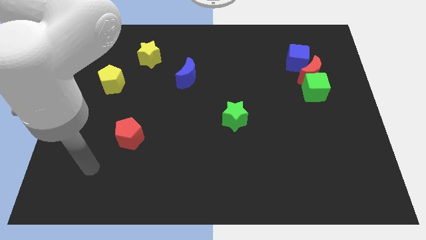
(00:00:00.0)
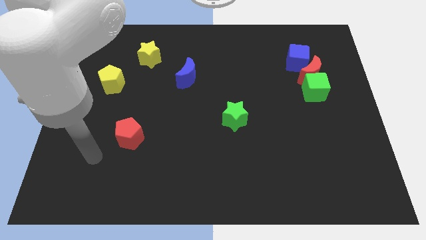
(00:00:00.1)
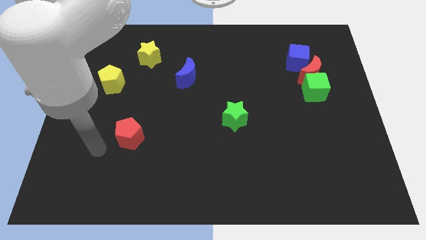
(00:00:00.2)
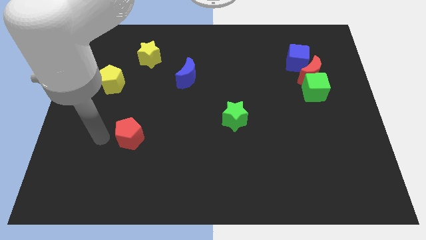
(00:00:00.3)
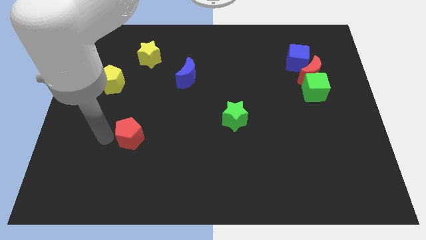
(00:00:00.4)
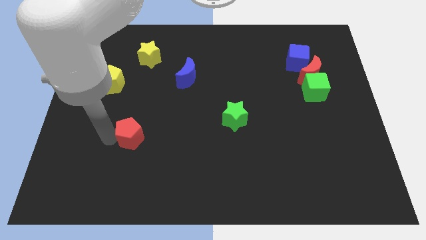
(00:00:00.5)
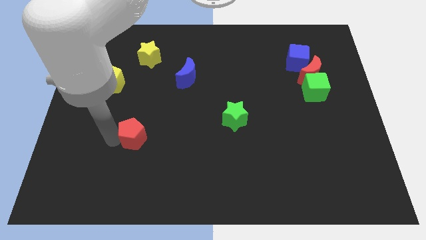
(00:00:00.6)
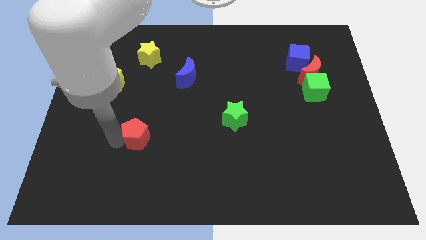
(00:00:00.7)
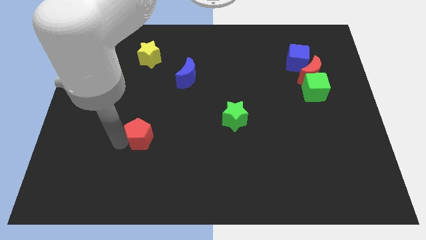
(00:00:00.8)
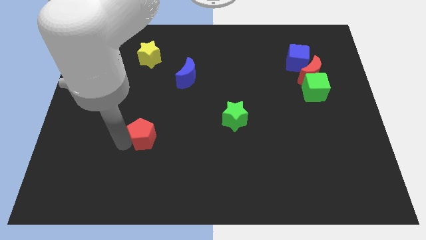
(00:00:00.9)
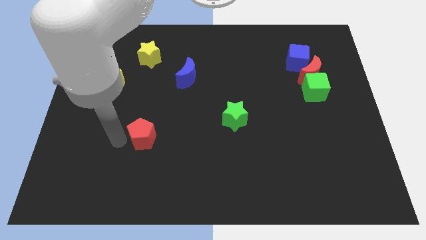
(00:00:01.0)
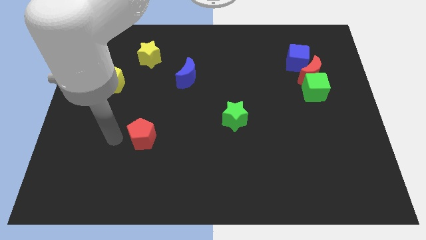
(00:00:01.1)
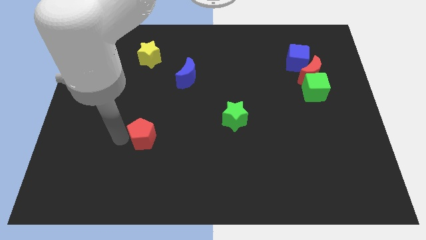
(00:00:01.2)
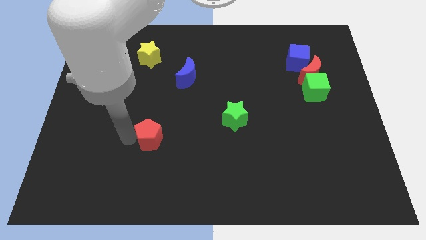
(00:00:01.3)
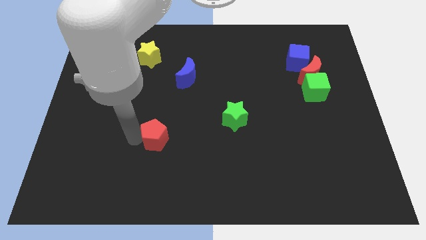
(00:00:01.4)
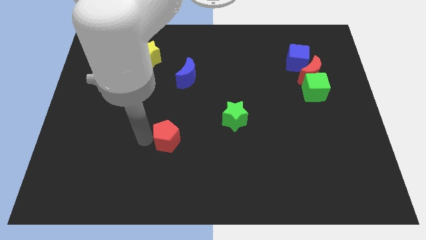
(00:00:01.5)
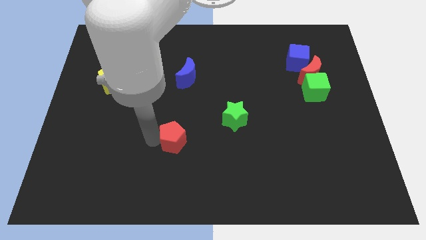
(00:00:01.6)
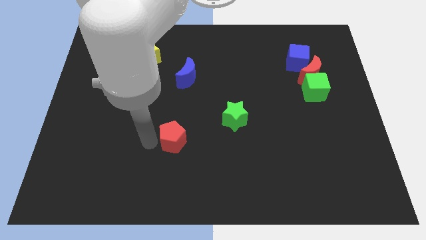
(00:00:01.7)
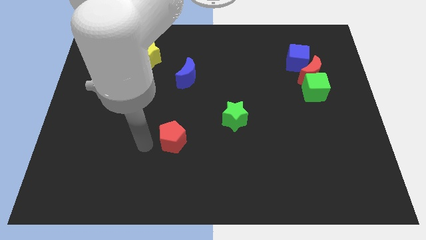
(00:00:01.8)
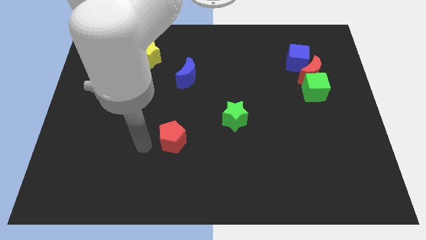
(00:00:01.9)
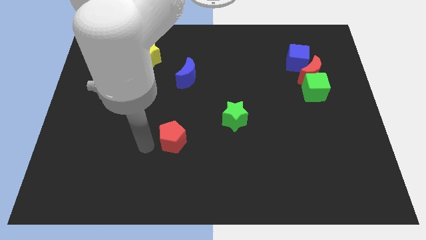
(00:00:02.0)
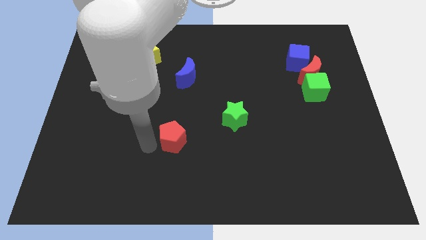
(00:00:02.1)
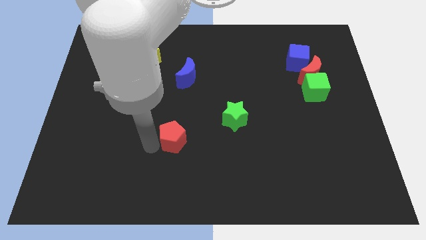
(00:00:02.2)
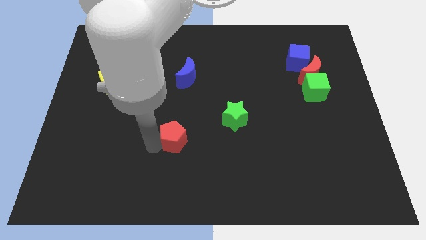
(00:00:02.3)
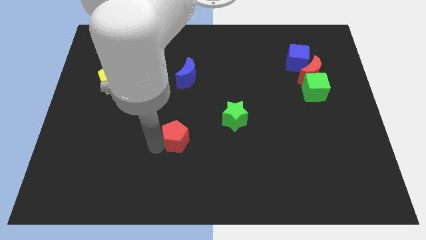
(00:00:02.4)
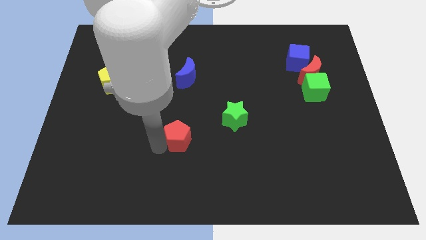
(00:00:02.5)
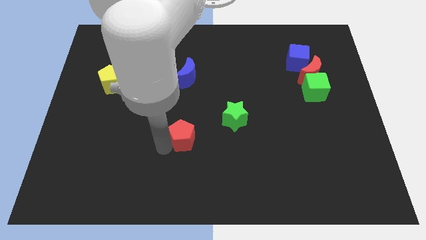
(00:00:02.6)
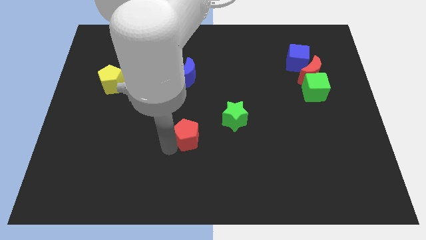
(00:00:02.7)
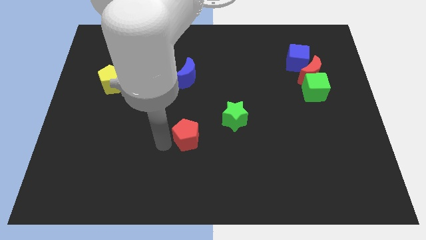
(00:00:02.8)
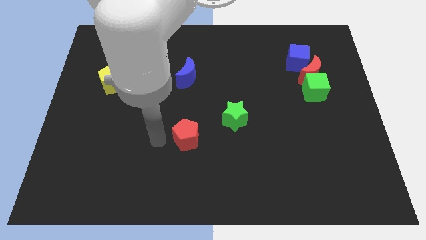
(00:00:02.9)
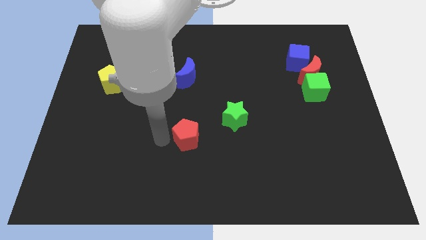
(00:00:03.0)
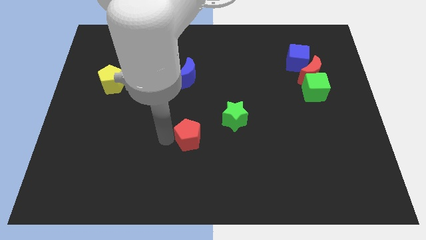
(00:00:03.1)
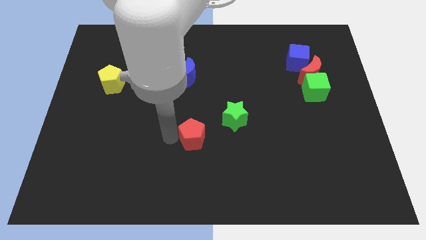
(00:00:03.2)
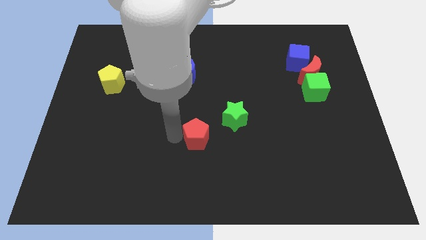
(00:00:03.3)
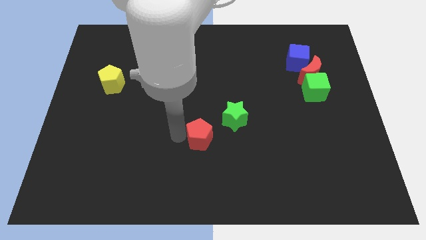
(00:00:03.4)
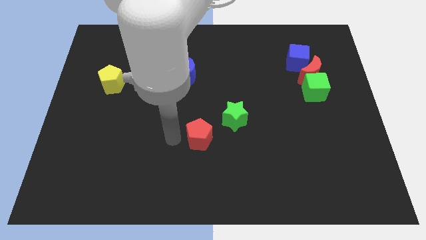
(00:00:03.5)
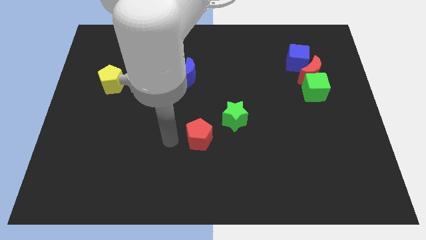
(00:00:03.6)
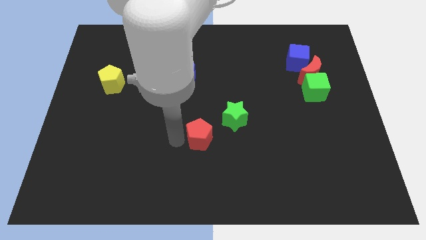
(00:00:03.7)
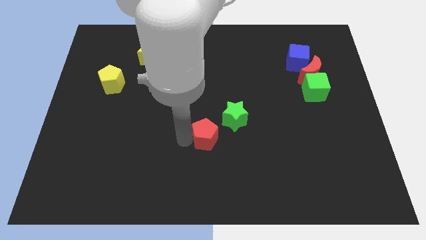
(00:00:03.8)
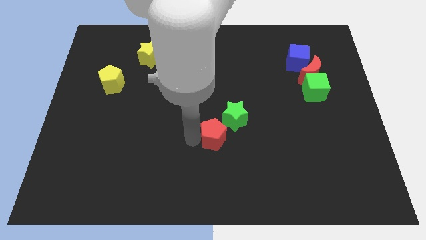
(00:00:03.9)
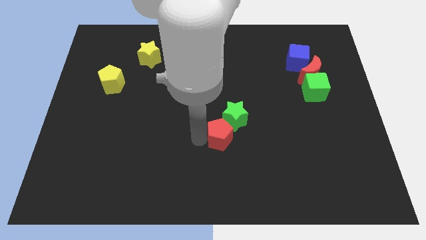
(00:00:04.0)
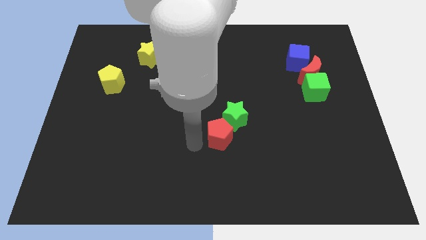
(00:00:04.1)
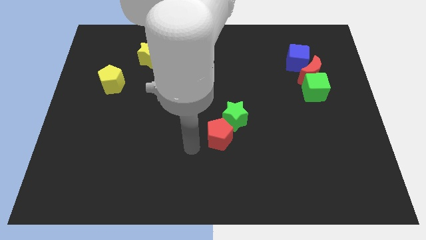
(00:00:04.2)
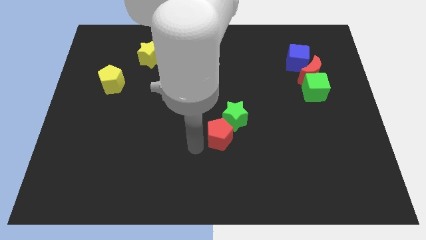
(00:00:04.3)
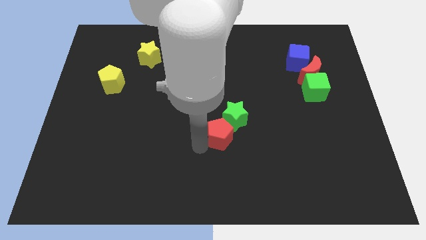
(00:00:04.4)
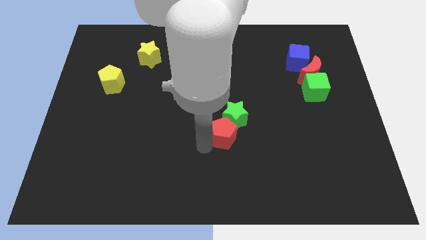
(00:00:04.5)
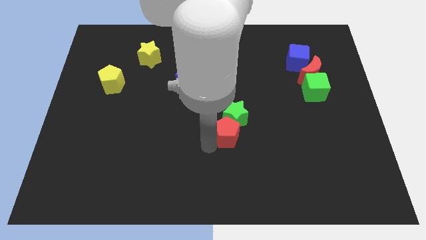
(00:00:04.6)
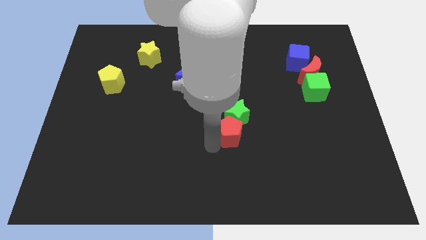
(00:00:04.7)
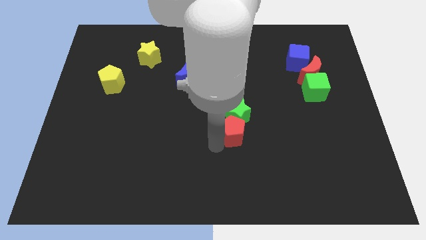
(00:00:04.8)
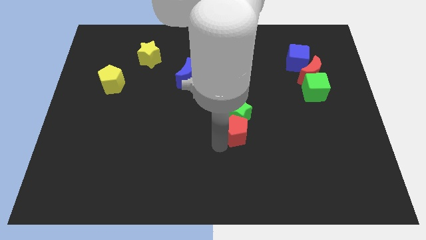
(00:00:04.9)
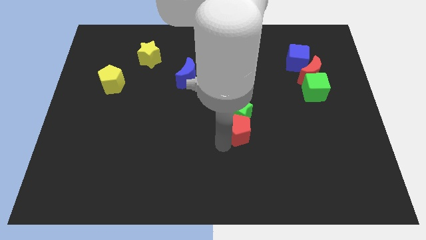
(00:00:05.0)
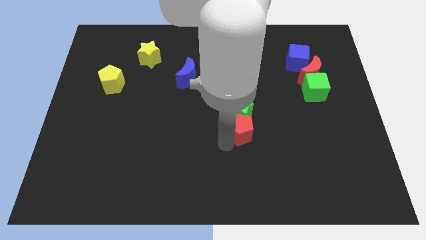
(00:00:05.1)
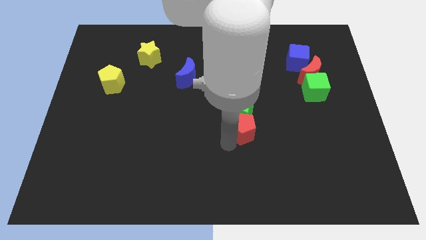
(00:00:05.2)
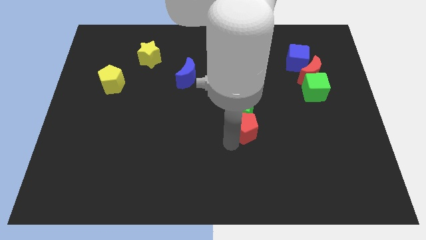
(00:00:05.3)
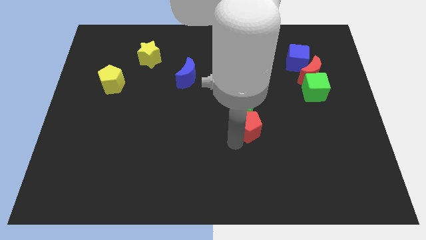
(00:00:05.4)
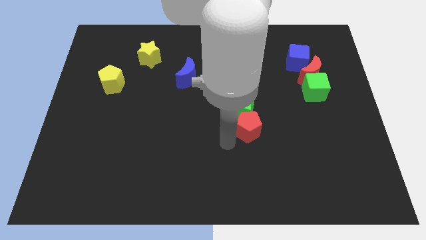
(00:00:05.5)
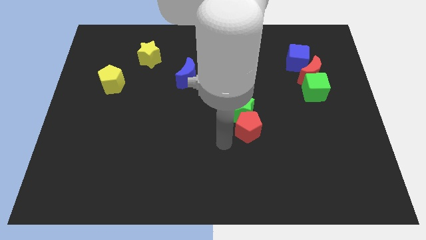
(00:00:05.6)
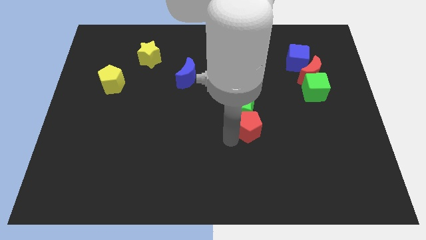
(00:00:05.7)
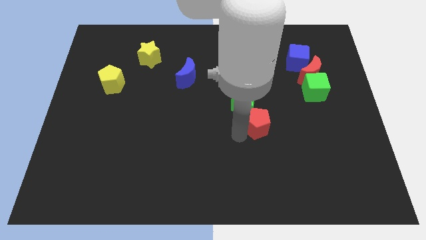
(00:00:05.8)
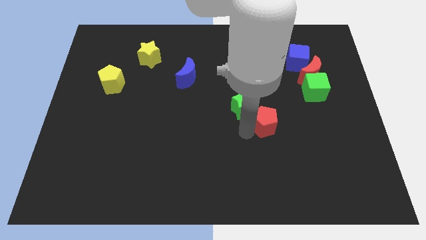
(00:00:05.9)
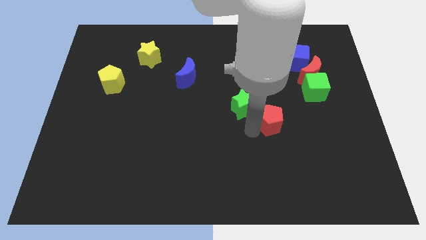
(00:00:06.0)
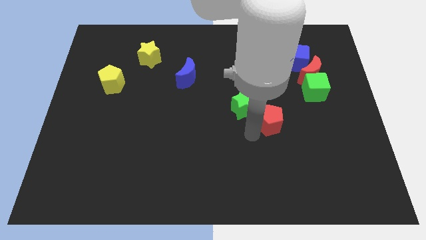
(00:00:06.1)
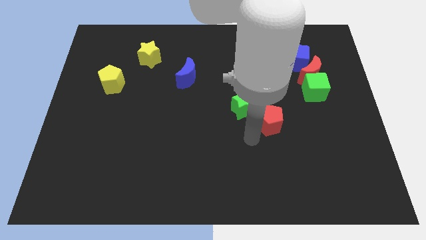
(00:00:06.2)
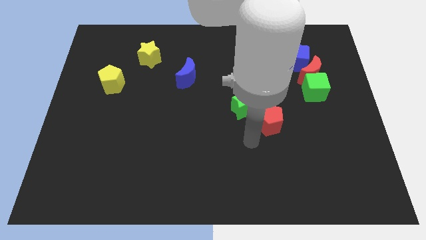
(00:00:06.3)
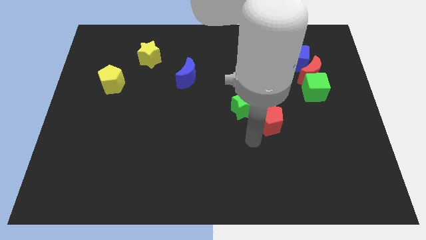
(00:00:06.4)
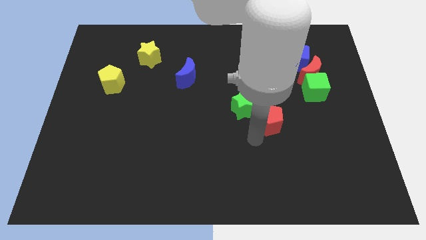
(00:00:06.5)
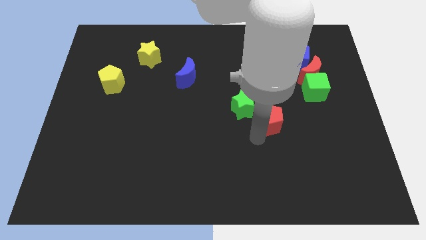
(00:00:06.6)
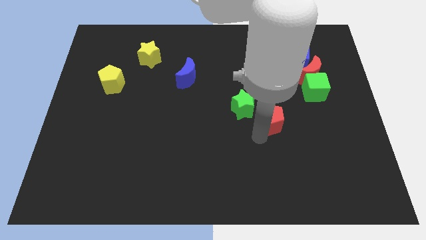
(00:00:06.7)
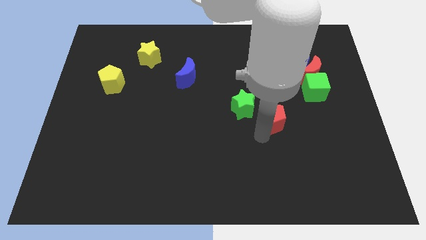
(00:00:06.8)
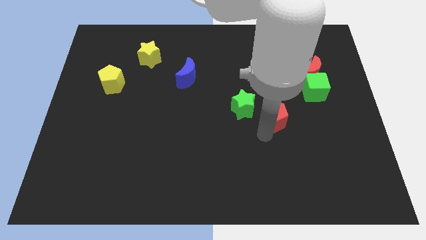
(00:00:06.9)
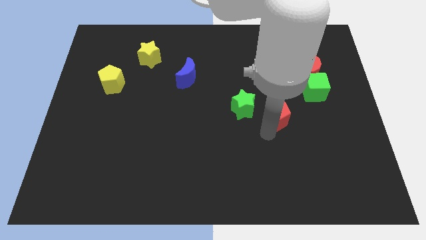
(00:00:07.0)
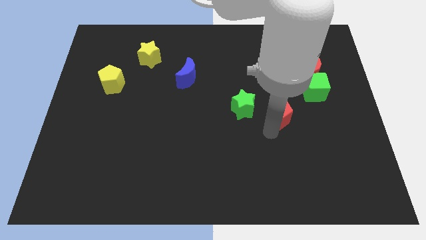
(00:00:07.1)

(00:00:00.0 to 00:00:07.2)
push the red pentagon diagonally down and to the left of the green cube
